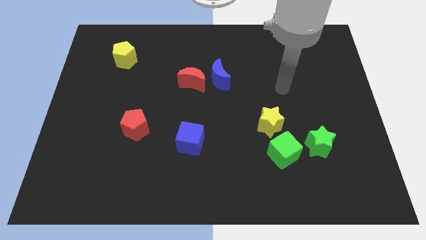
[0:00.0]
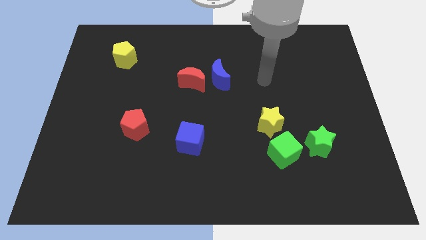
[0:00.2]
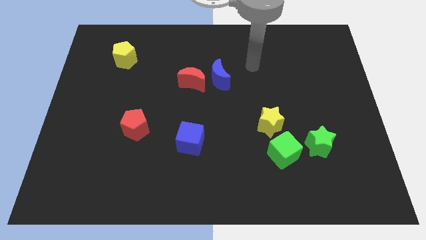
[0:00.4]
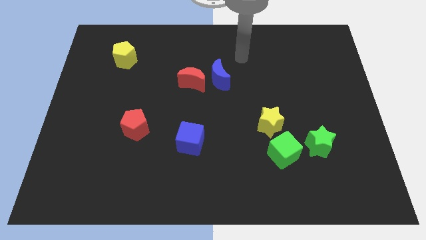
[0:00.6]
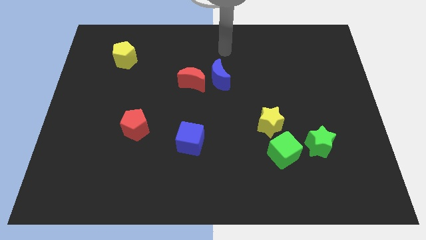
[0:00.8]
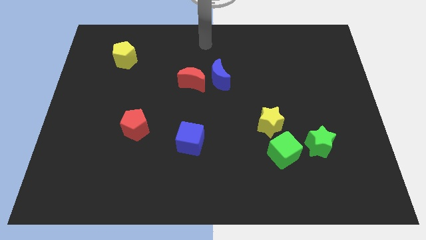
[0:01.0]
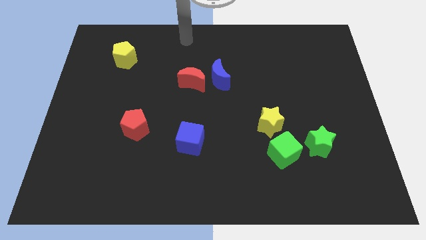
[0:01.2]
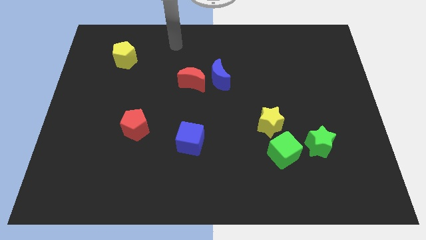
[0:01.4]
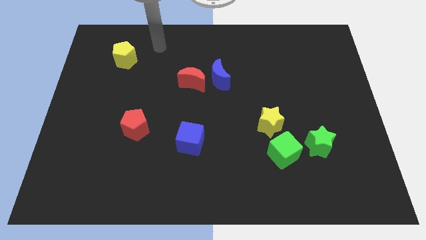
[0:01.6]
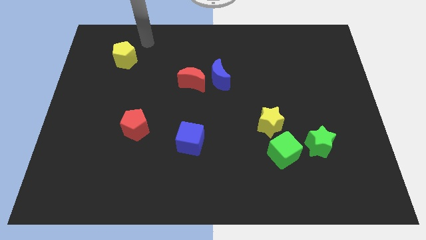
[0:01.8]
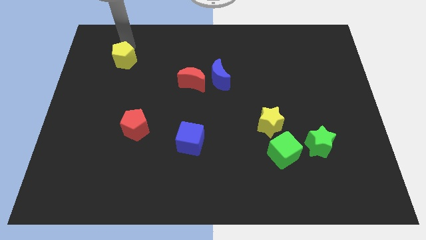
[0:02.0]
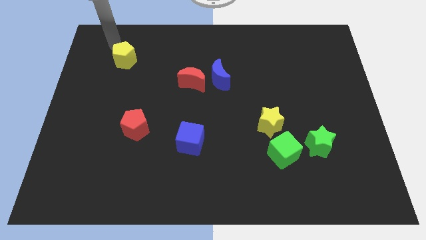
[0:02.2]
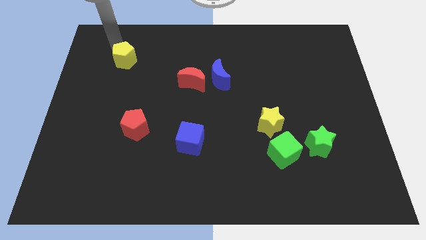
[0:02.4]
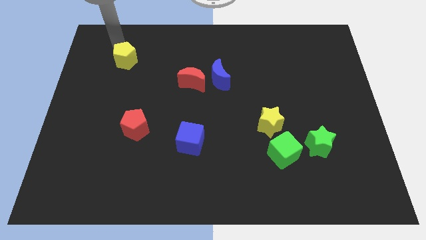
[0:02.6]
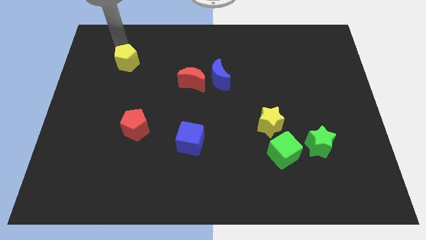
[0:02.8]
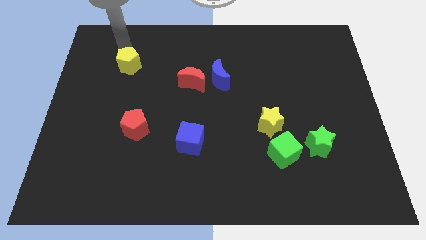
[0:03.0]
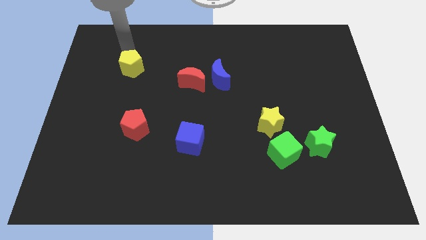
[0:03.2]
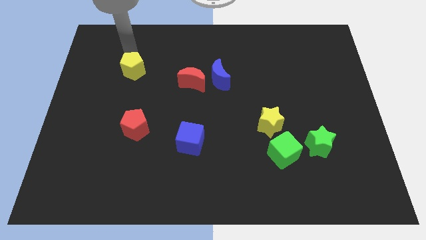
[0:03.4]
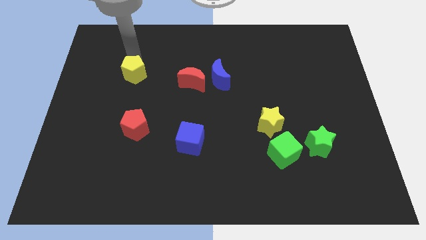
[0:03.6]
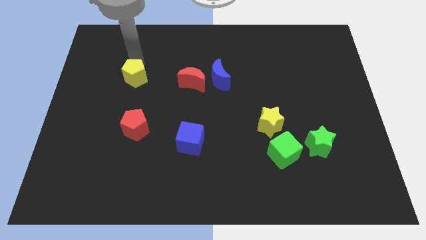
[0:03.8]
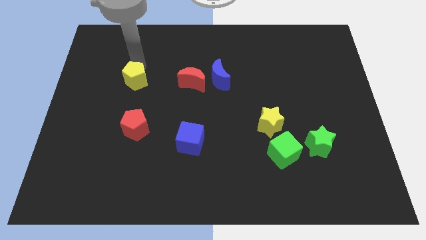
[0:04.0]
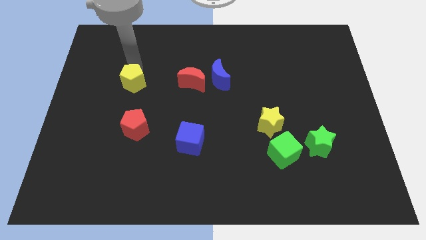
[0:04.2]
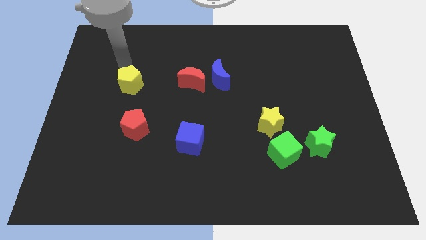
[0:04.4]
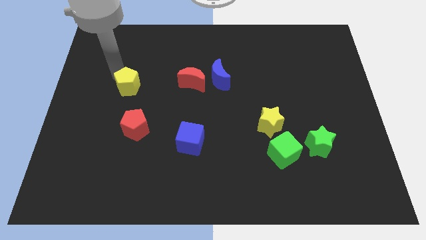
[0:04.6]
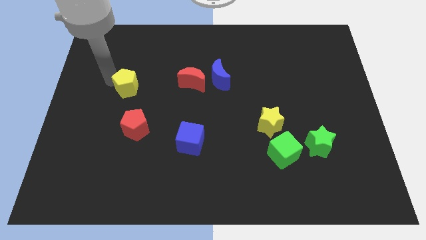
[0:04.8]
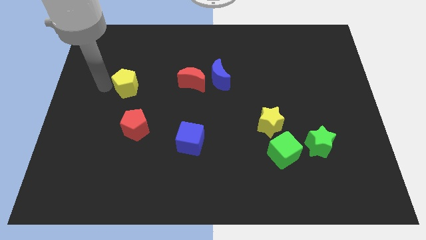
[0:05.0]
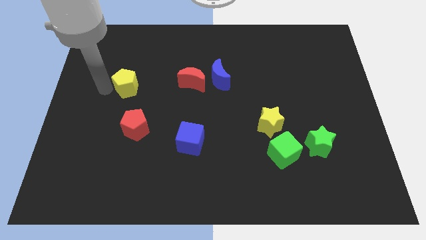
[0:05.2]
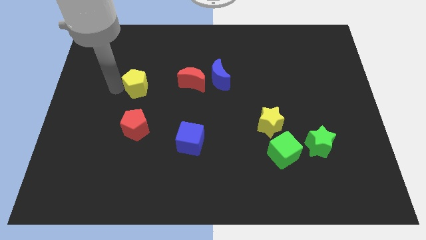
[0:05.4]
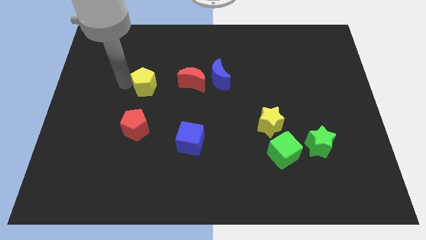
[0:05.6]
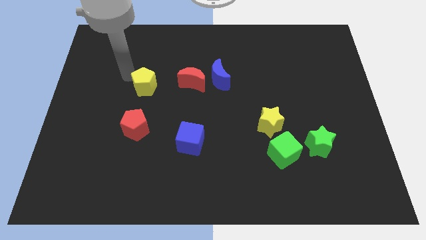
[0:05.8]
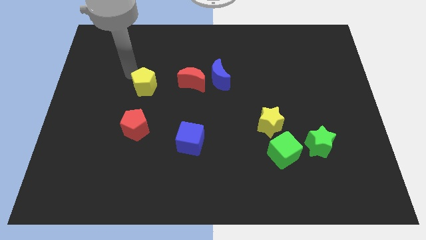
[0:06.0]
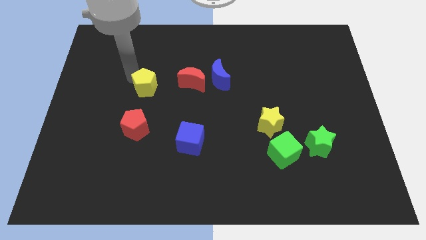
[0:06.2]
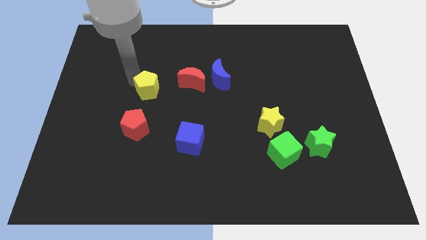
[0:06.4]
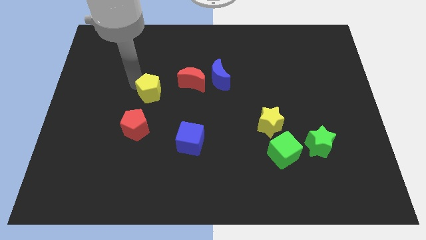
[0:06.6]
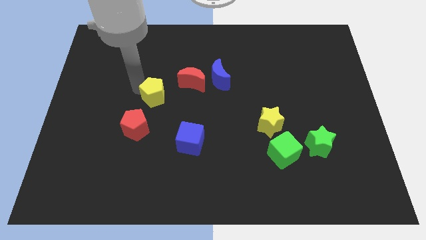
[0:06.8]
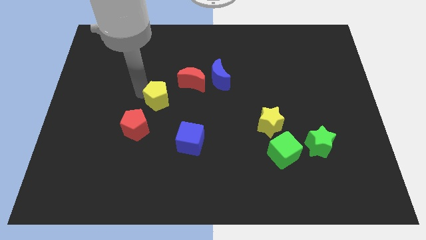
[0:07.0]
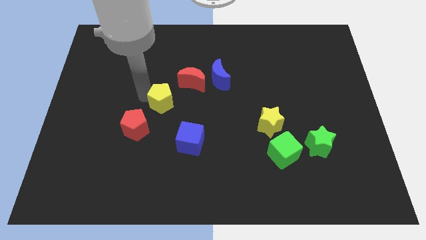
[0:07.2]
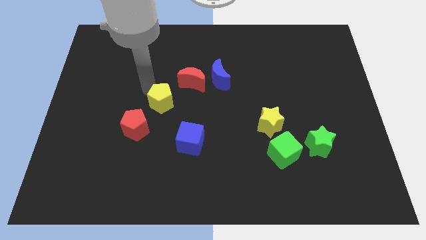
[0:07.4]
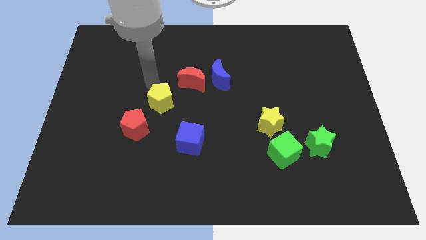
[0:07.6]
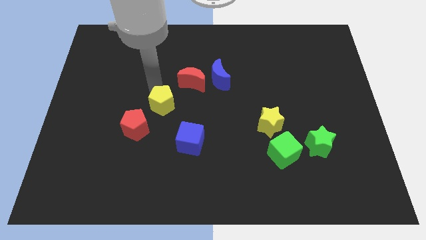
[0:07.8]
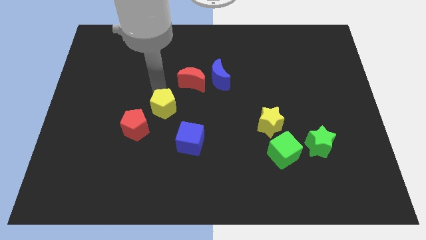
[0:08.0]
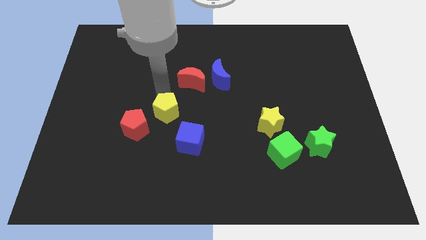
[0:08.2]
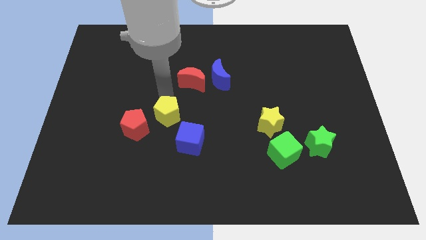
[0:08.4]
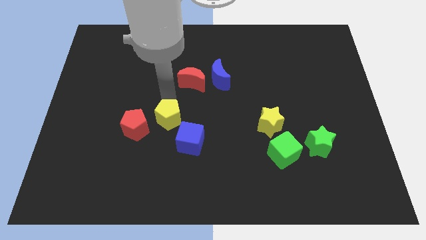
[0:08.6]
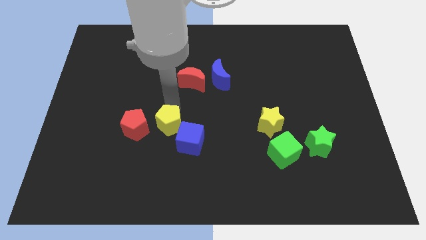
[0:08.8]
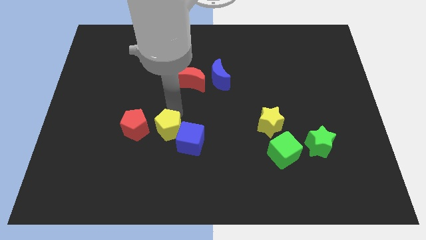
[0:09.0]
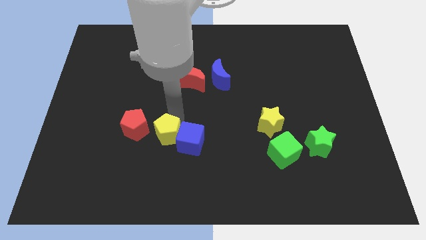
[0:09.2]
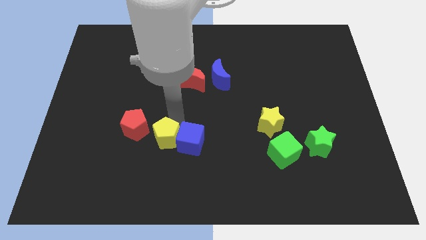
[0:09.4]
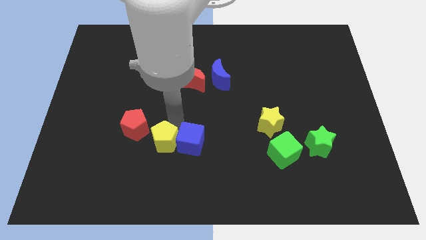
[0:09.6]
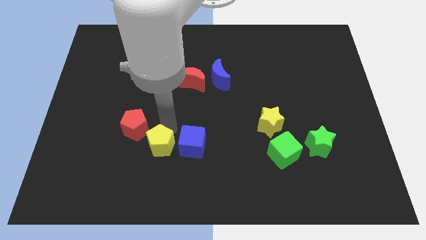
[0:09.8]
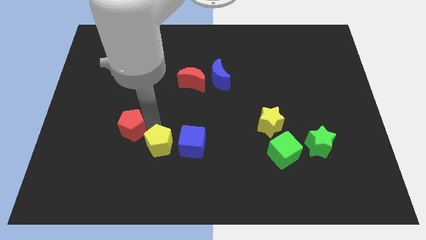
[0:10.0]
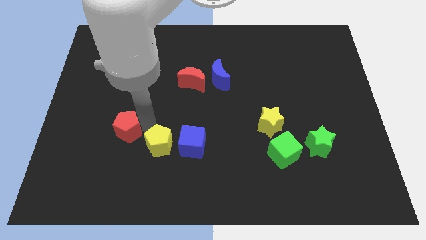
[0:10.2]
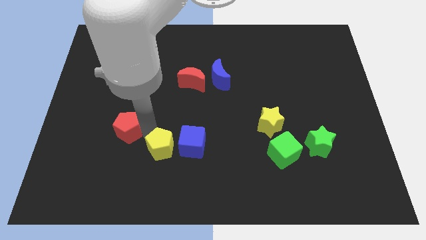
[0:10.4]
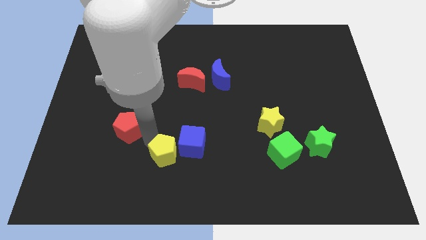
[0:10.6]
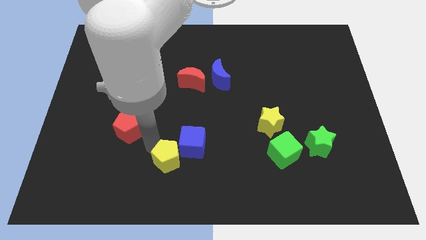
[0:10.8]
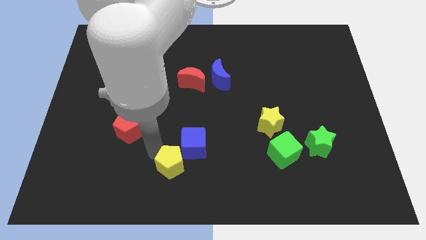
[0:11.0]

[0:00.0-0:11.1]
put the yellow pentagon to the bottom

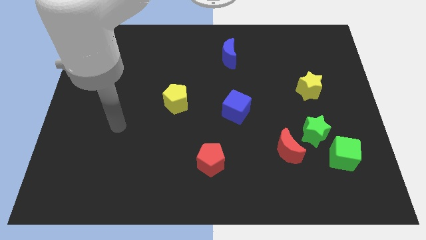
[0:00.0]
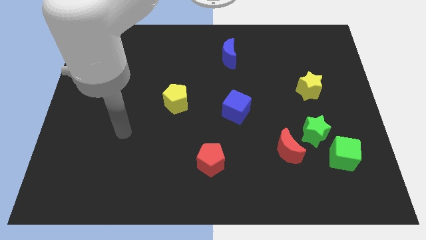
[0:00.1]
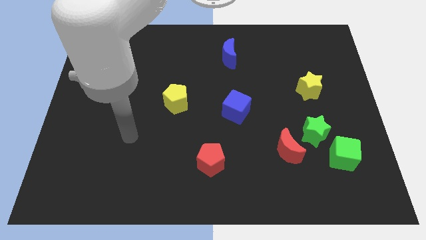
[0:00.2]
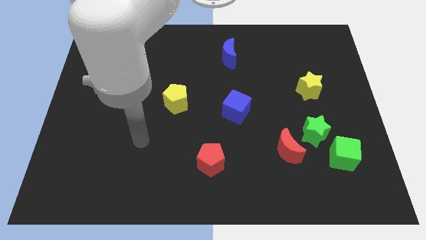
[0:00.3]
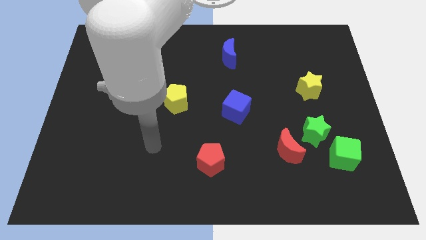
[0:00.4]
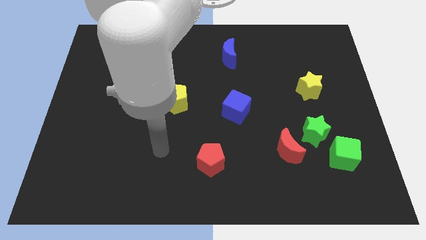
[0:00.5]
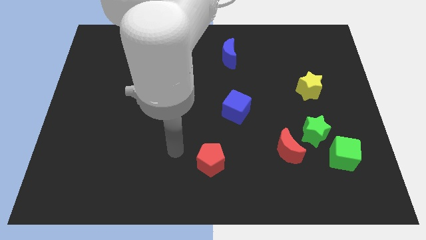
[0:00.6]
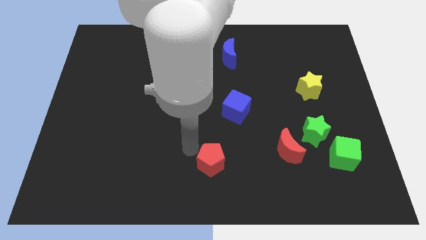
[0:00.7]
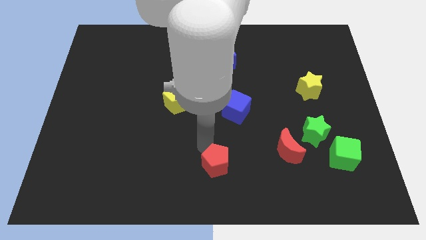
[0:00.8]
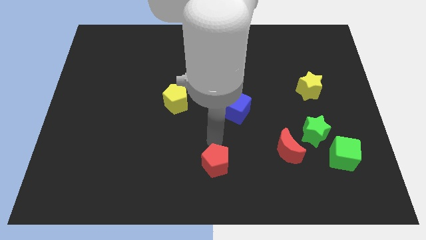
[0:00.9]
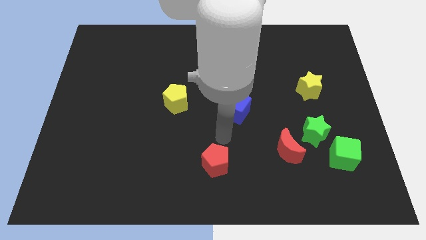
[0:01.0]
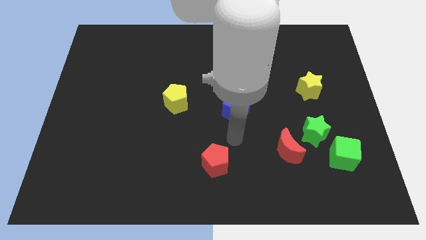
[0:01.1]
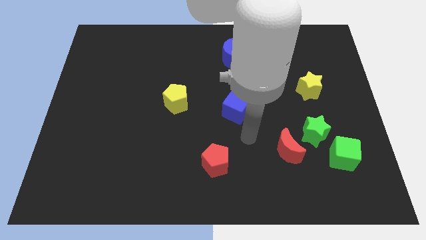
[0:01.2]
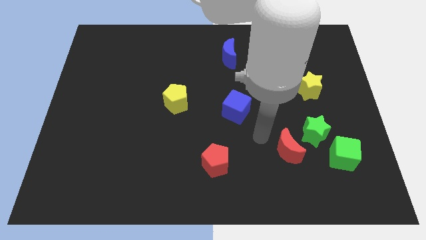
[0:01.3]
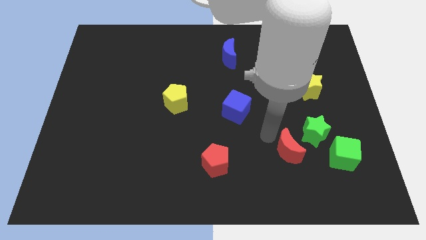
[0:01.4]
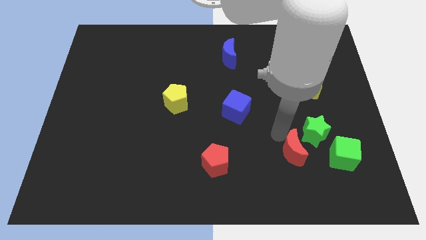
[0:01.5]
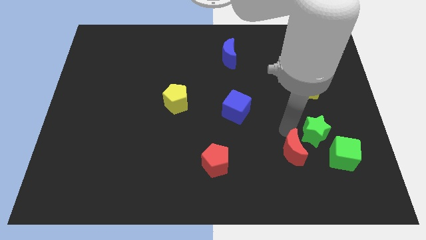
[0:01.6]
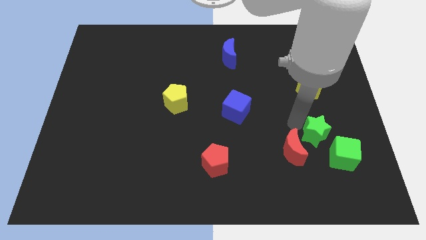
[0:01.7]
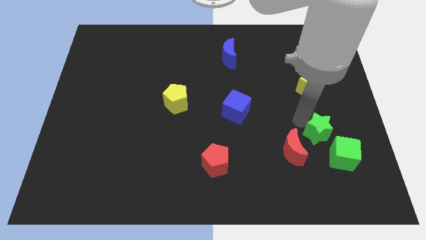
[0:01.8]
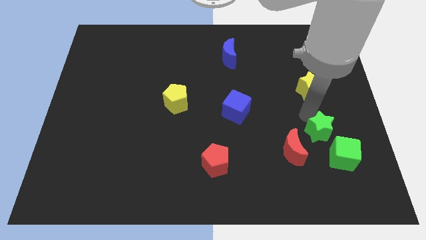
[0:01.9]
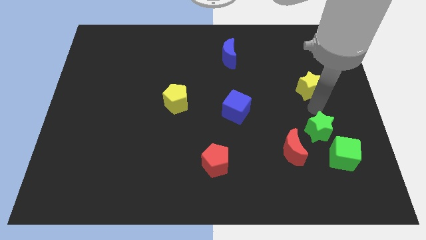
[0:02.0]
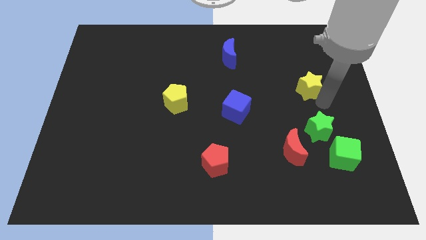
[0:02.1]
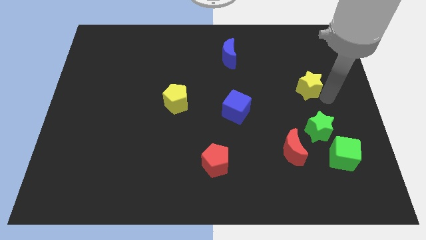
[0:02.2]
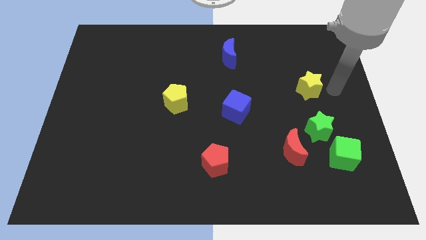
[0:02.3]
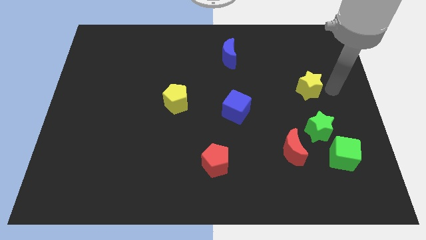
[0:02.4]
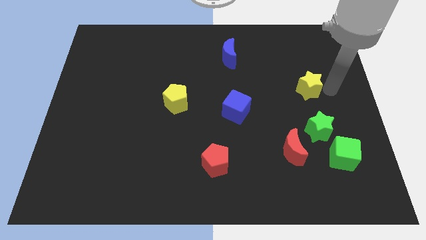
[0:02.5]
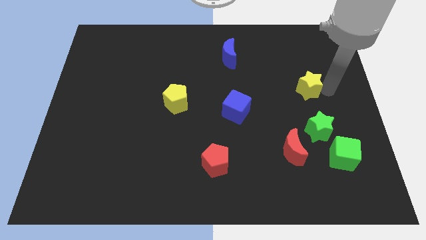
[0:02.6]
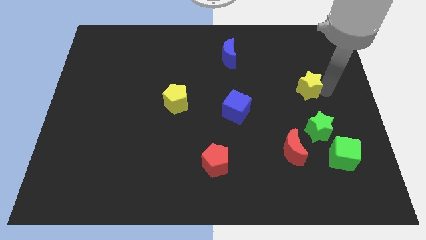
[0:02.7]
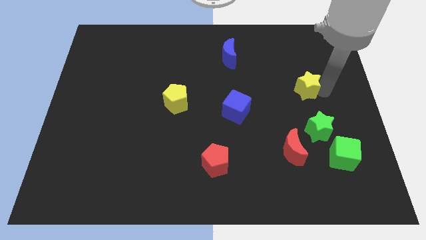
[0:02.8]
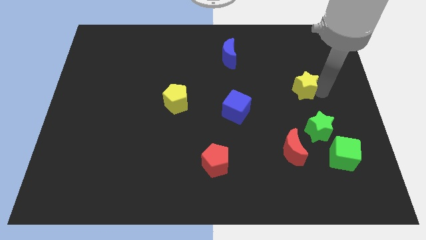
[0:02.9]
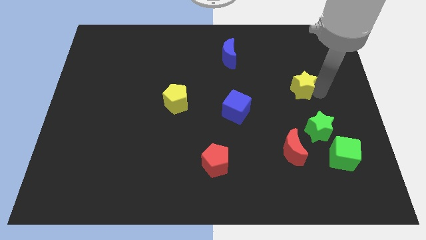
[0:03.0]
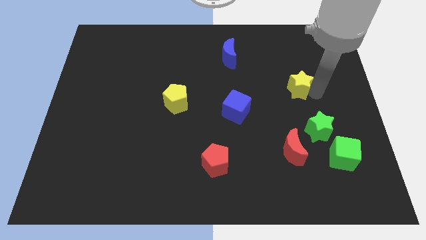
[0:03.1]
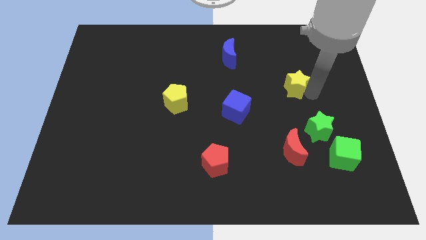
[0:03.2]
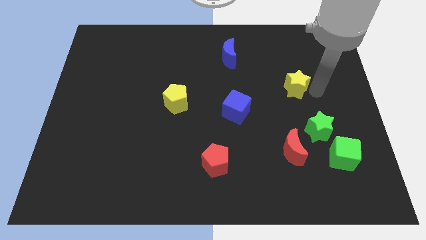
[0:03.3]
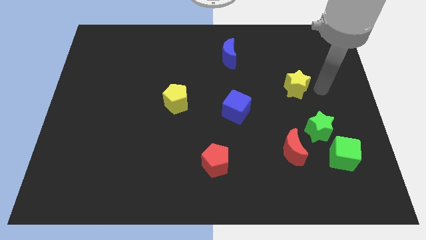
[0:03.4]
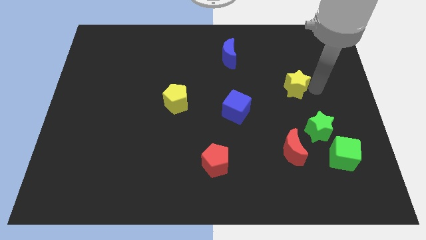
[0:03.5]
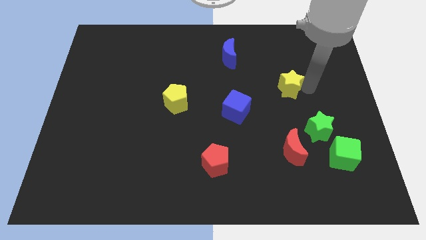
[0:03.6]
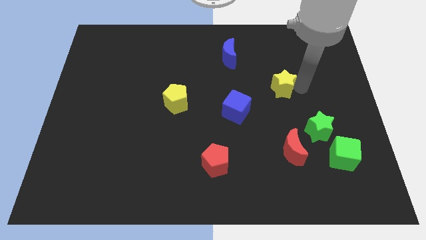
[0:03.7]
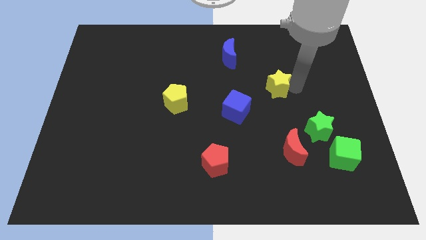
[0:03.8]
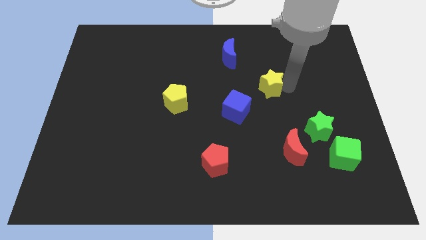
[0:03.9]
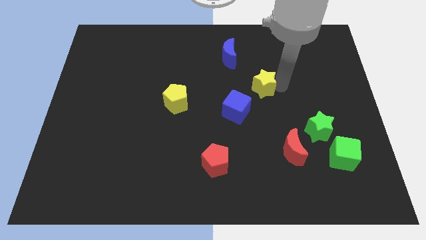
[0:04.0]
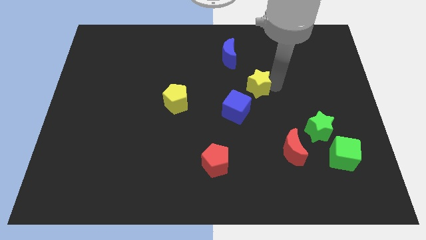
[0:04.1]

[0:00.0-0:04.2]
push the yellow star to the center
